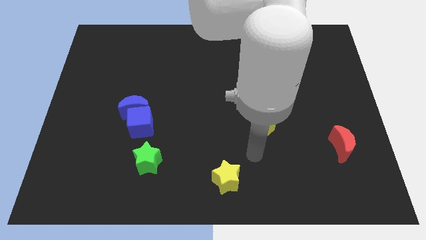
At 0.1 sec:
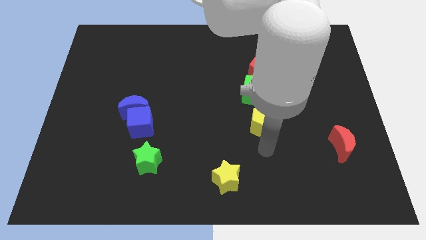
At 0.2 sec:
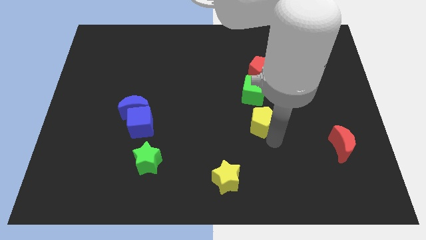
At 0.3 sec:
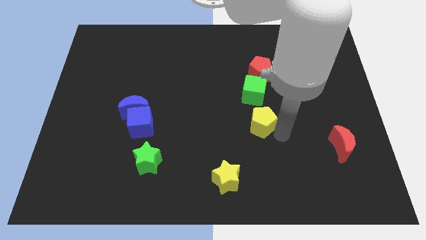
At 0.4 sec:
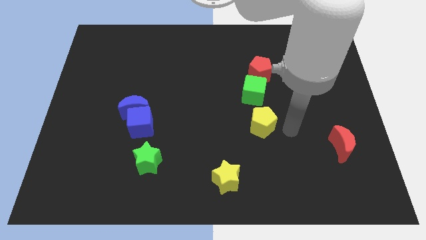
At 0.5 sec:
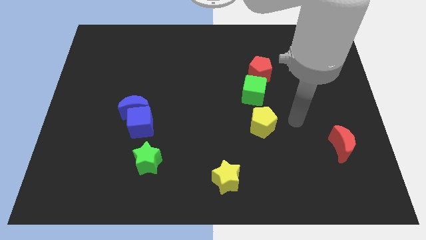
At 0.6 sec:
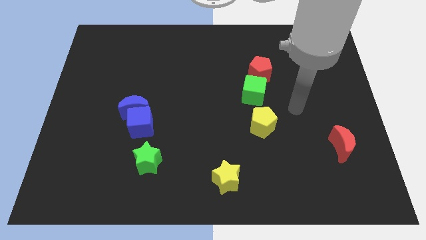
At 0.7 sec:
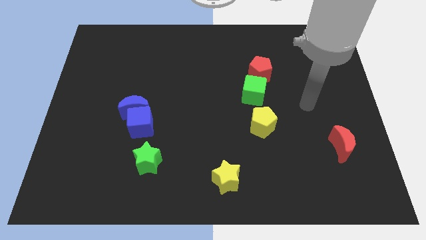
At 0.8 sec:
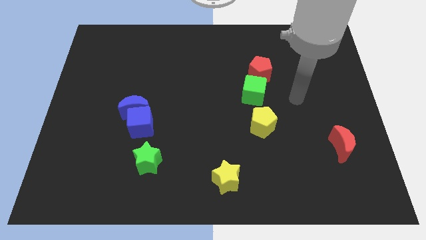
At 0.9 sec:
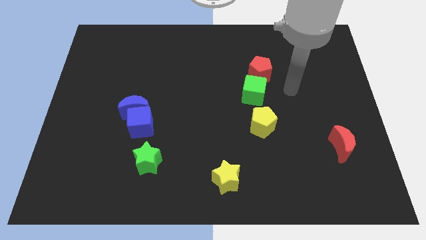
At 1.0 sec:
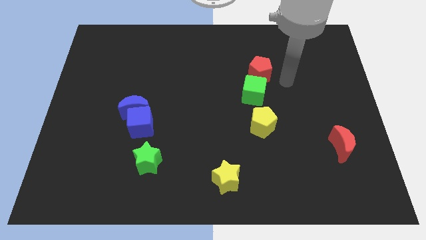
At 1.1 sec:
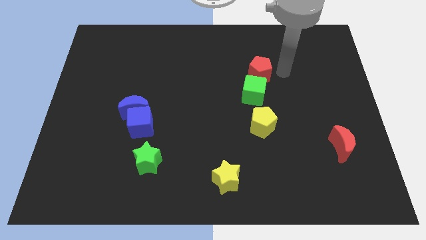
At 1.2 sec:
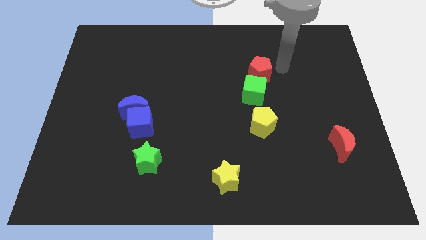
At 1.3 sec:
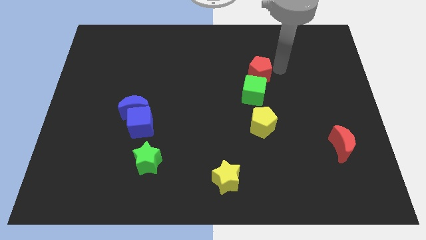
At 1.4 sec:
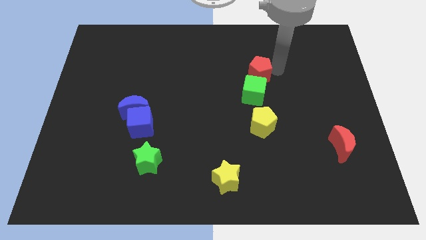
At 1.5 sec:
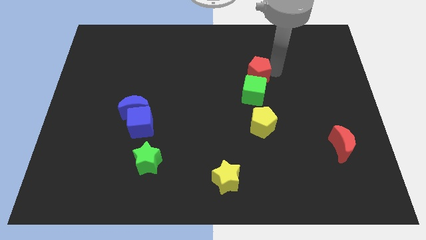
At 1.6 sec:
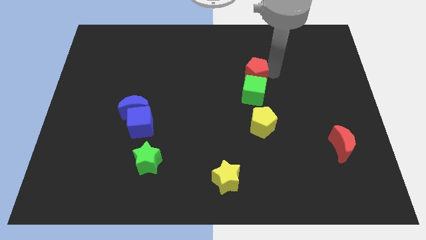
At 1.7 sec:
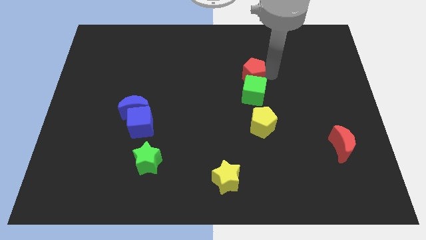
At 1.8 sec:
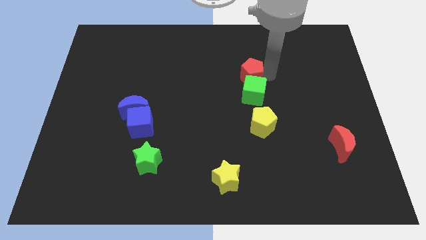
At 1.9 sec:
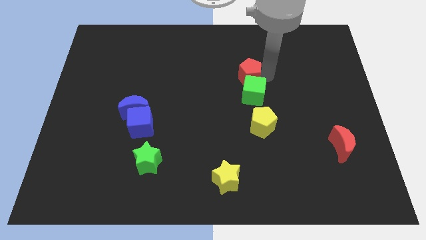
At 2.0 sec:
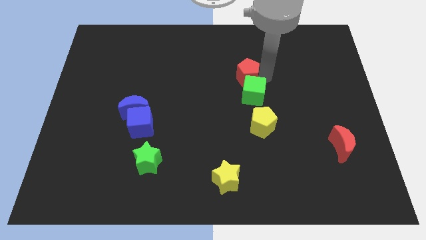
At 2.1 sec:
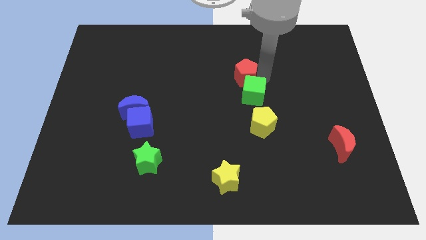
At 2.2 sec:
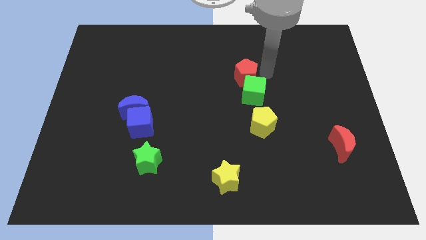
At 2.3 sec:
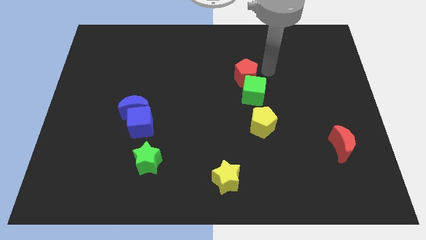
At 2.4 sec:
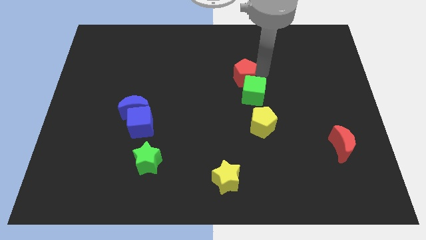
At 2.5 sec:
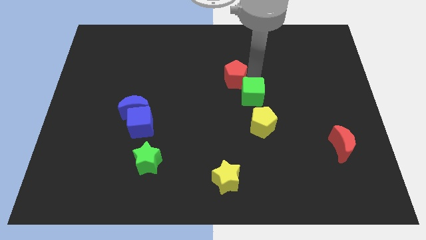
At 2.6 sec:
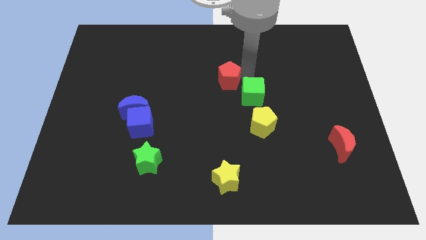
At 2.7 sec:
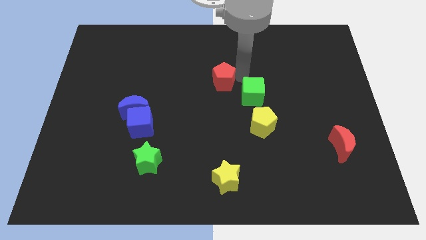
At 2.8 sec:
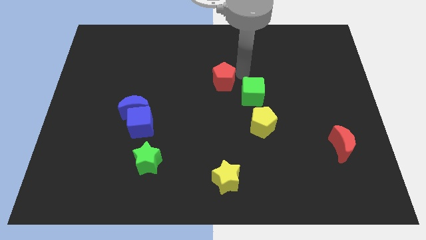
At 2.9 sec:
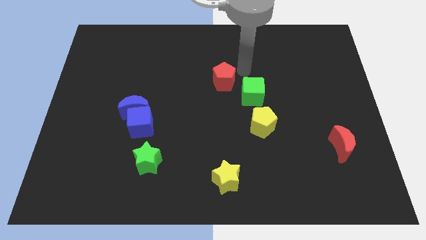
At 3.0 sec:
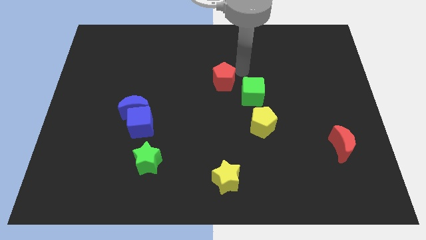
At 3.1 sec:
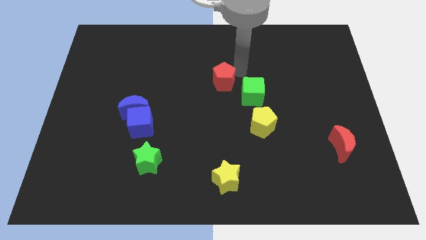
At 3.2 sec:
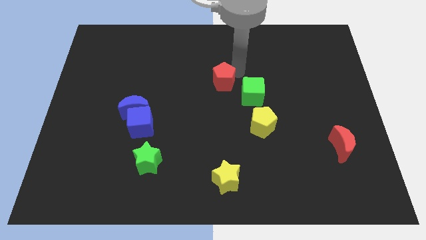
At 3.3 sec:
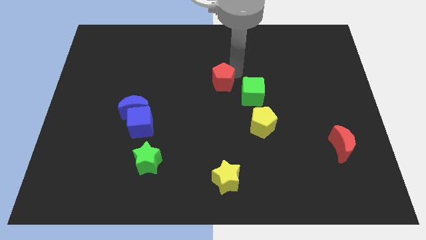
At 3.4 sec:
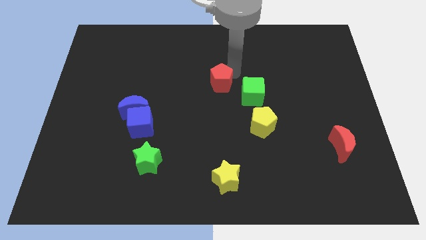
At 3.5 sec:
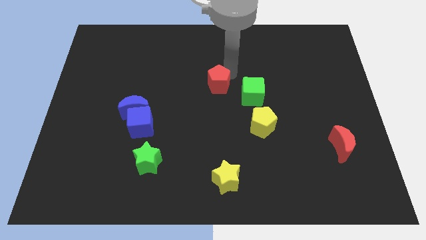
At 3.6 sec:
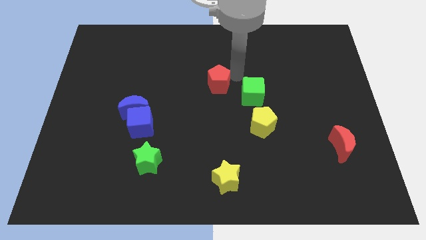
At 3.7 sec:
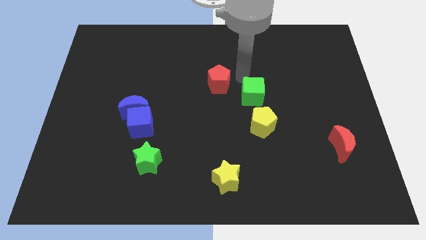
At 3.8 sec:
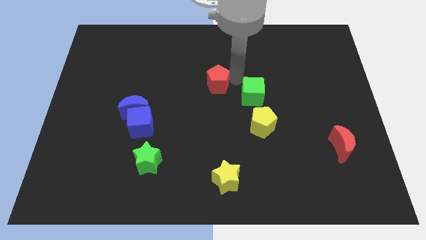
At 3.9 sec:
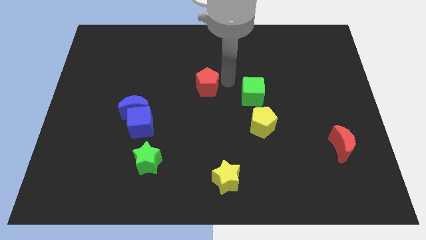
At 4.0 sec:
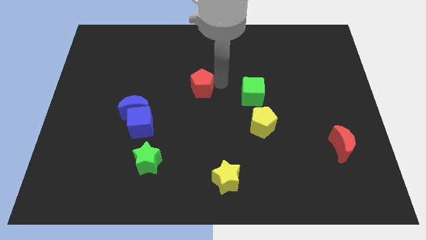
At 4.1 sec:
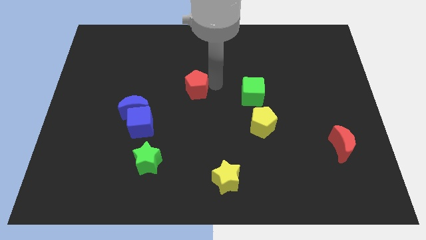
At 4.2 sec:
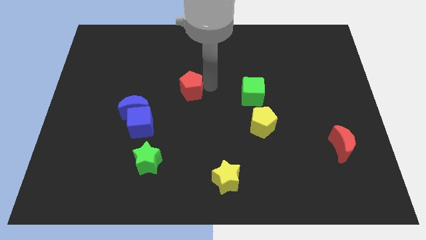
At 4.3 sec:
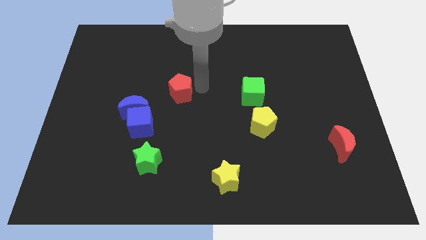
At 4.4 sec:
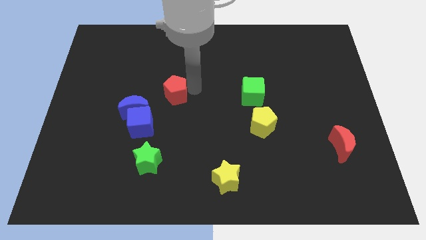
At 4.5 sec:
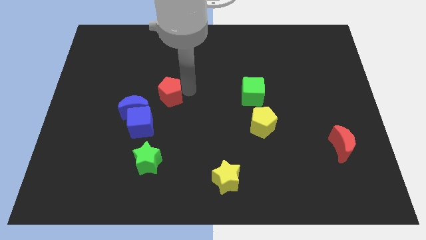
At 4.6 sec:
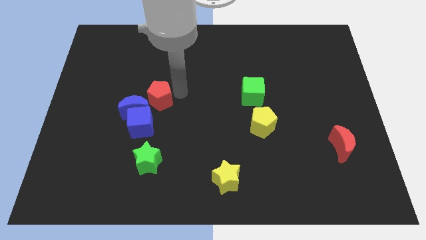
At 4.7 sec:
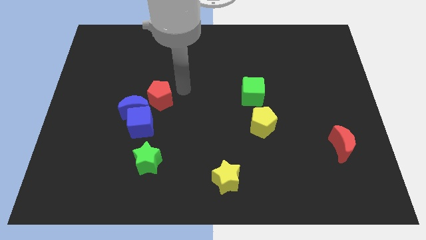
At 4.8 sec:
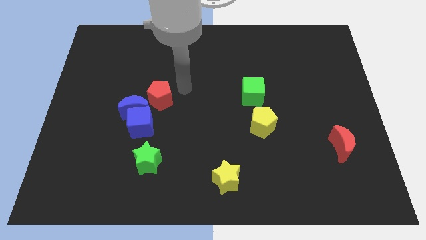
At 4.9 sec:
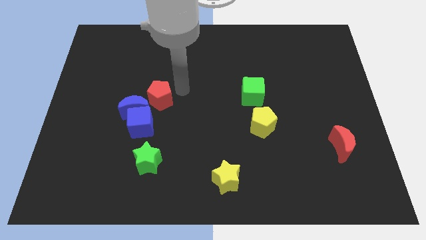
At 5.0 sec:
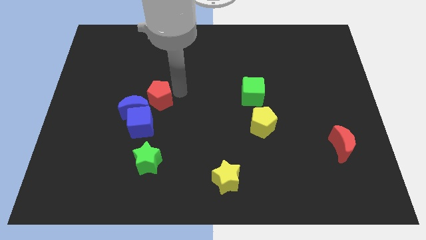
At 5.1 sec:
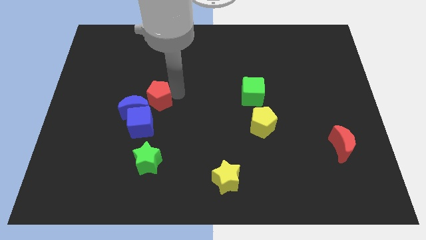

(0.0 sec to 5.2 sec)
slide the red pentagon towards the blue moon

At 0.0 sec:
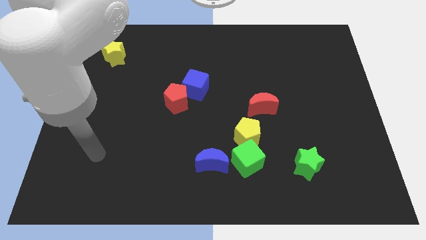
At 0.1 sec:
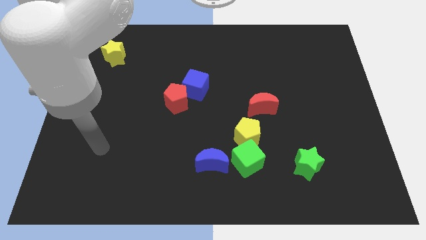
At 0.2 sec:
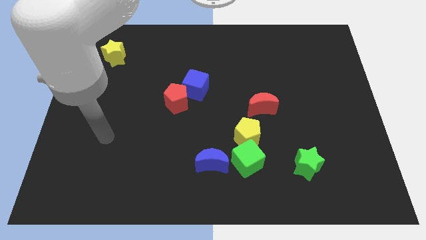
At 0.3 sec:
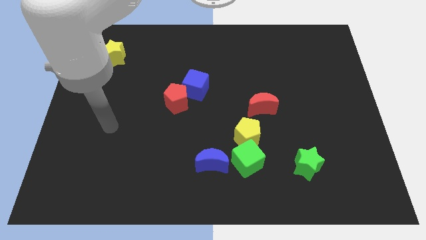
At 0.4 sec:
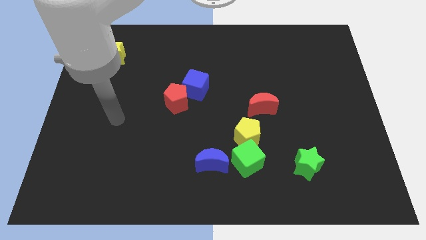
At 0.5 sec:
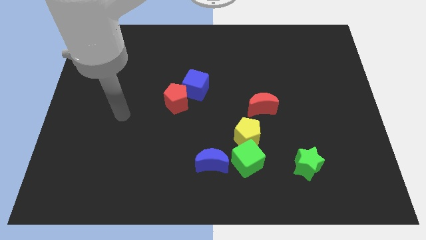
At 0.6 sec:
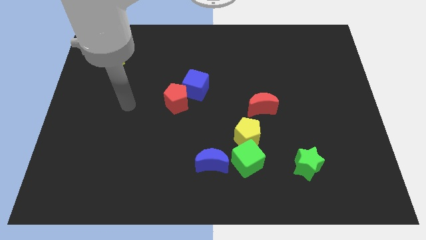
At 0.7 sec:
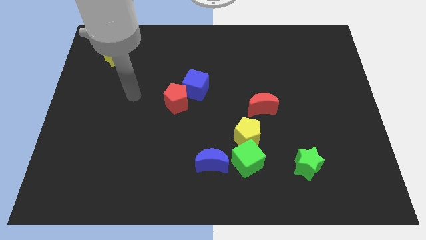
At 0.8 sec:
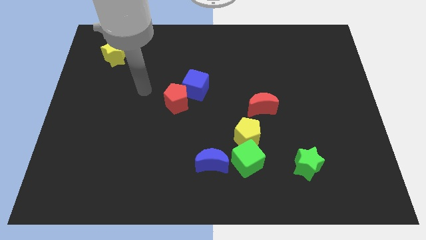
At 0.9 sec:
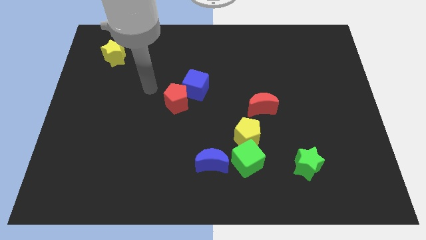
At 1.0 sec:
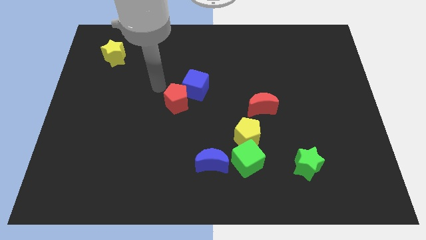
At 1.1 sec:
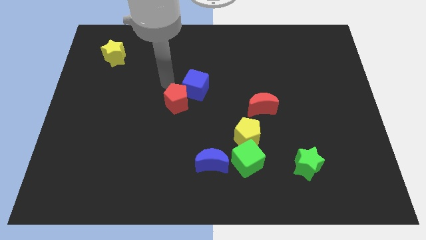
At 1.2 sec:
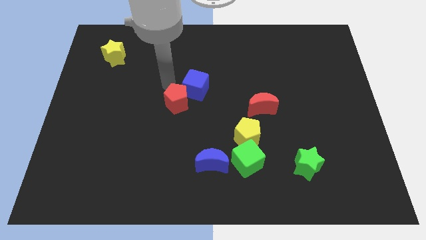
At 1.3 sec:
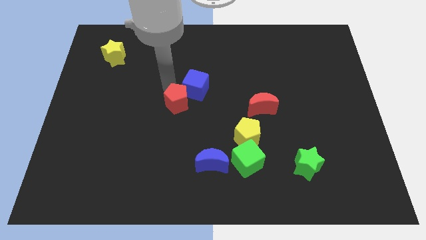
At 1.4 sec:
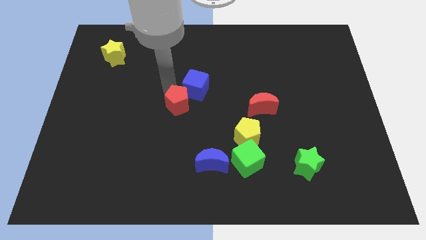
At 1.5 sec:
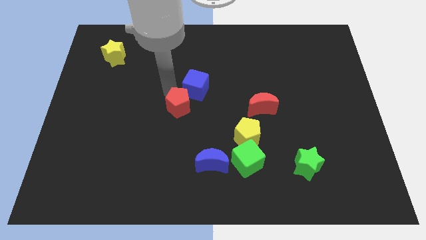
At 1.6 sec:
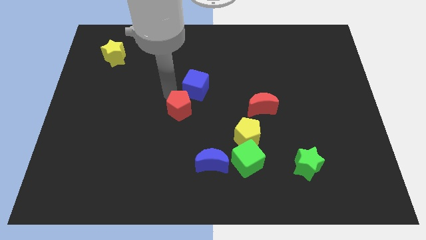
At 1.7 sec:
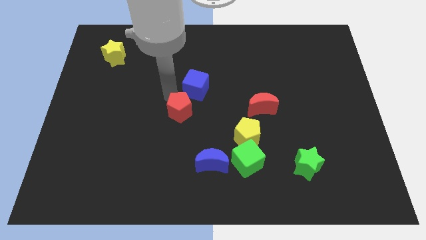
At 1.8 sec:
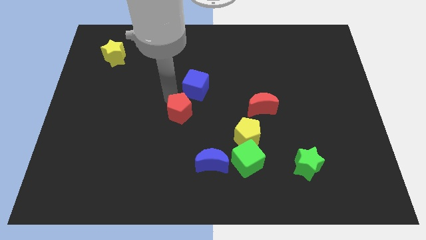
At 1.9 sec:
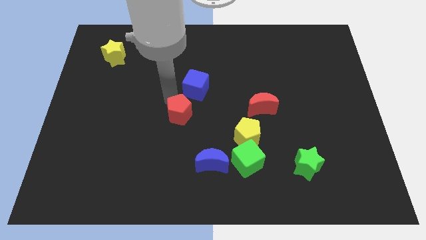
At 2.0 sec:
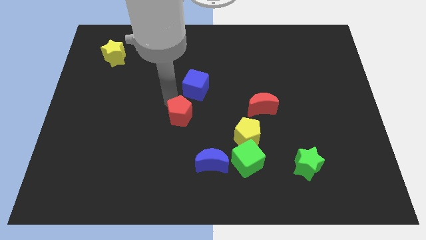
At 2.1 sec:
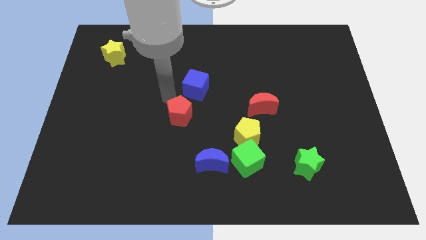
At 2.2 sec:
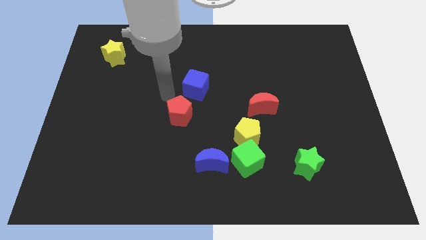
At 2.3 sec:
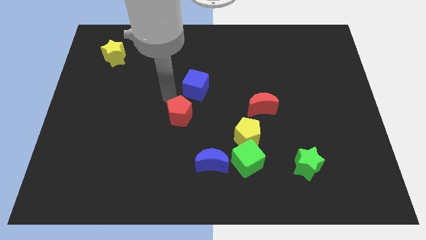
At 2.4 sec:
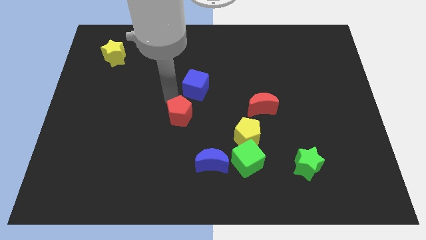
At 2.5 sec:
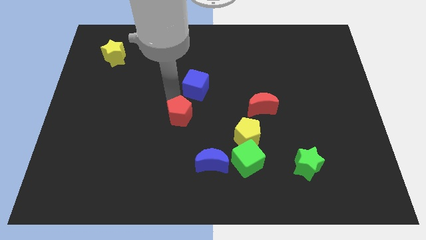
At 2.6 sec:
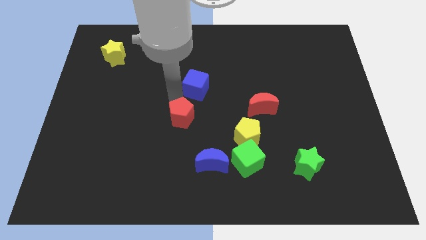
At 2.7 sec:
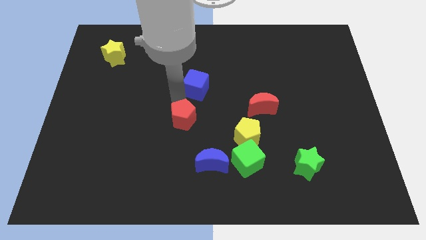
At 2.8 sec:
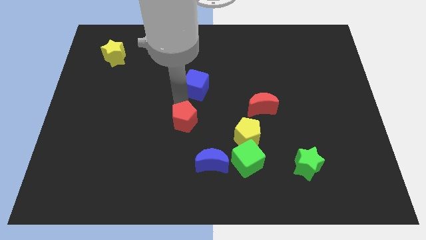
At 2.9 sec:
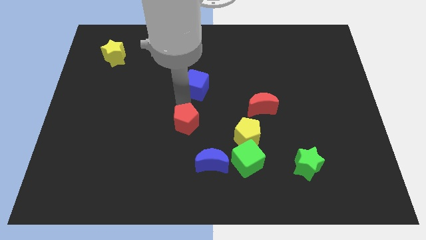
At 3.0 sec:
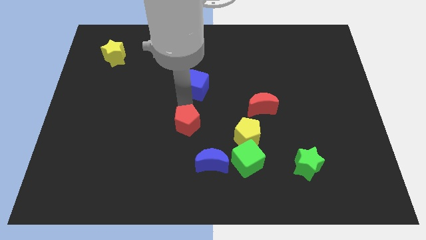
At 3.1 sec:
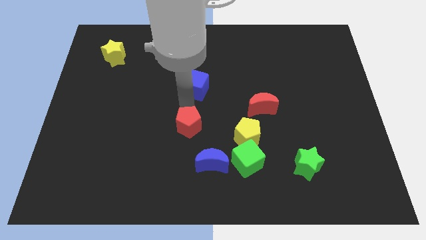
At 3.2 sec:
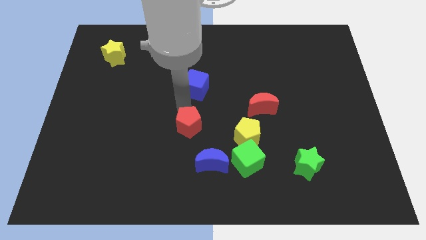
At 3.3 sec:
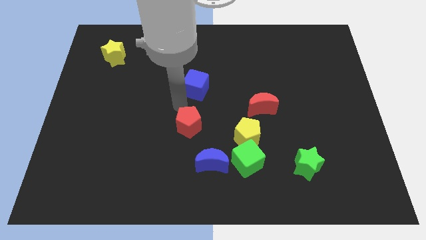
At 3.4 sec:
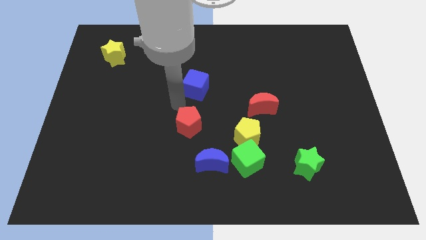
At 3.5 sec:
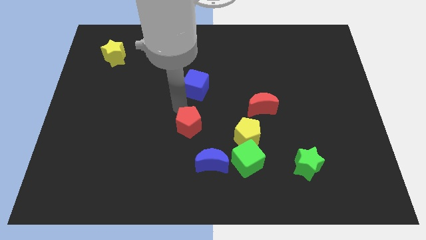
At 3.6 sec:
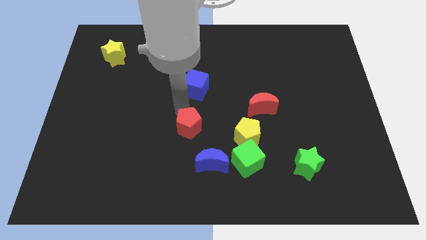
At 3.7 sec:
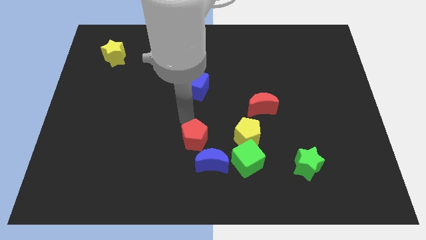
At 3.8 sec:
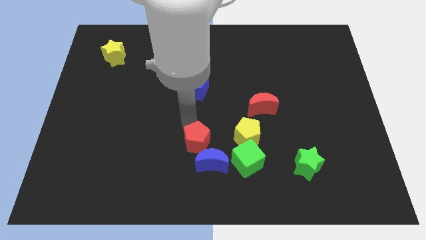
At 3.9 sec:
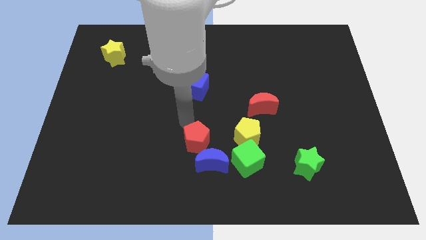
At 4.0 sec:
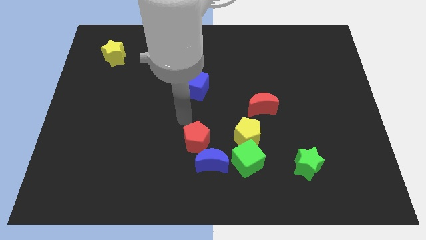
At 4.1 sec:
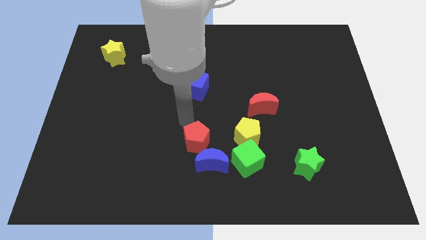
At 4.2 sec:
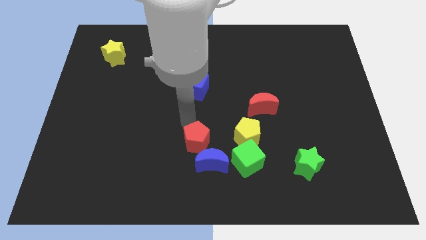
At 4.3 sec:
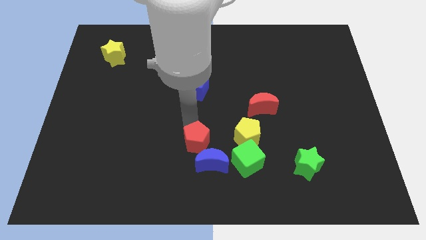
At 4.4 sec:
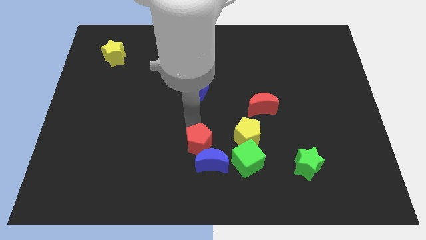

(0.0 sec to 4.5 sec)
move the red pentagon close to the blue moon
